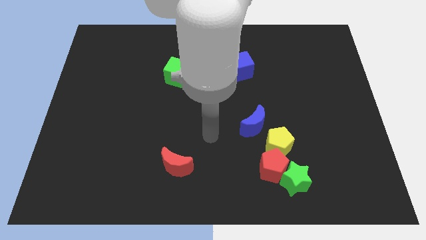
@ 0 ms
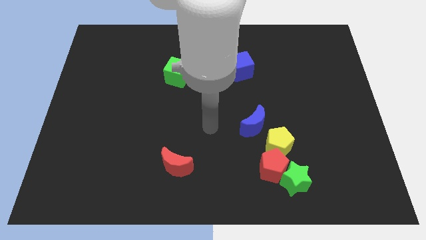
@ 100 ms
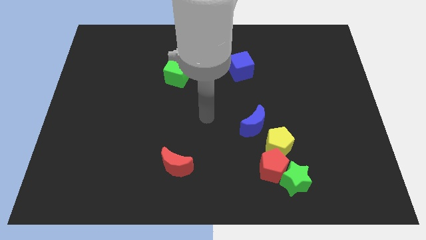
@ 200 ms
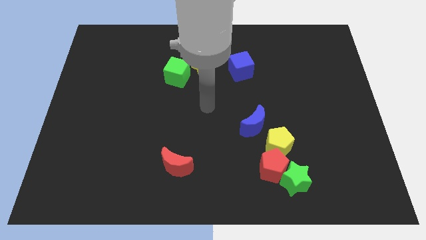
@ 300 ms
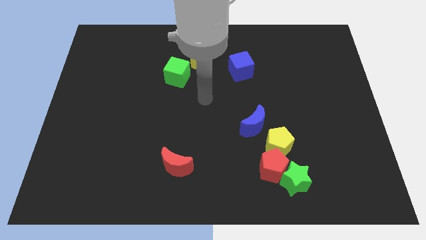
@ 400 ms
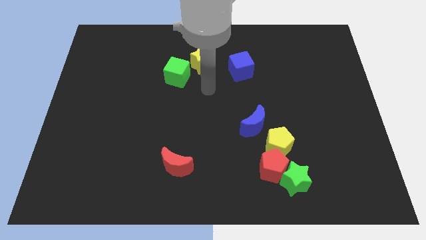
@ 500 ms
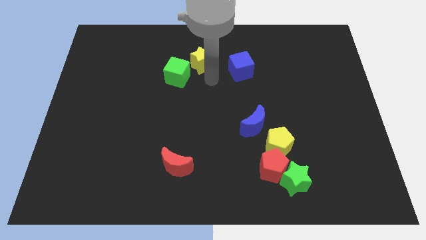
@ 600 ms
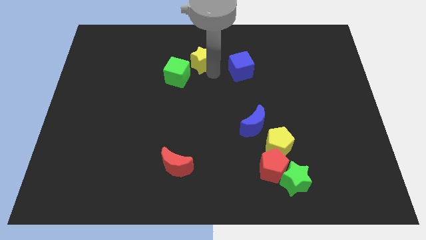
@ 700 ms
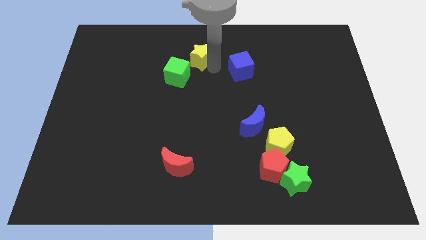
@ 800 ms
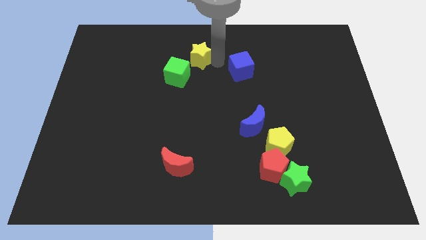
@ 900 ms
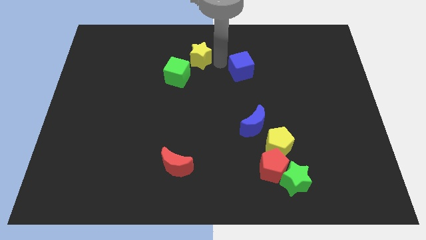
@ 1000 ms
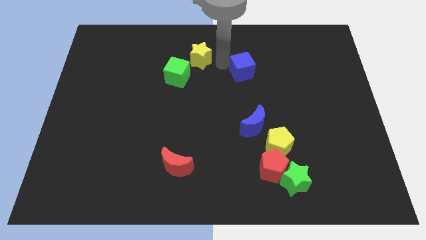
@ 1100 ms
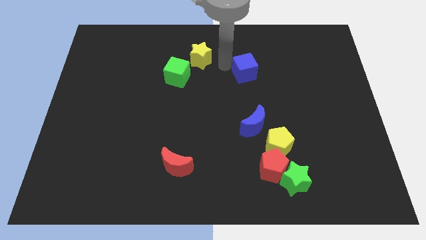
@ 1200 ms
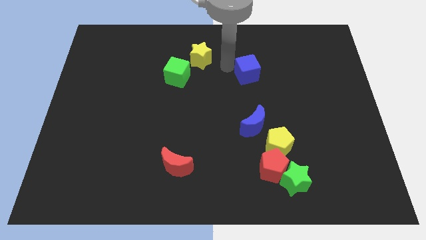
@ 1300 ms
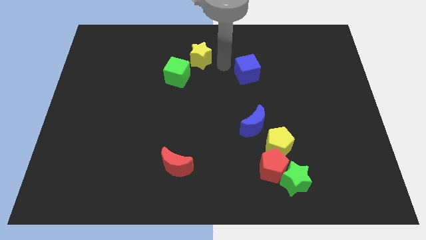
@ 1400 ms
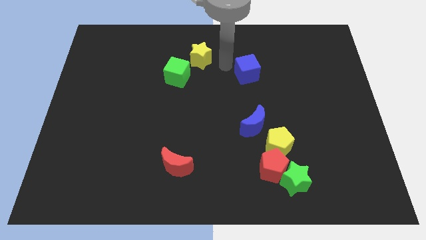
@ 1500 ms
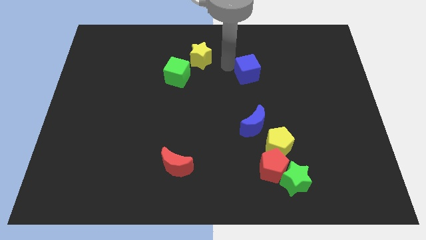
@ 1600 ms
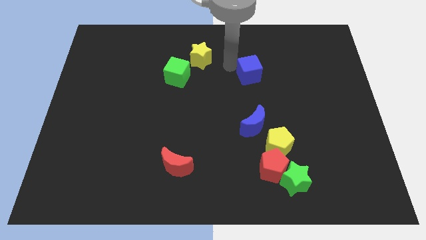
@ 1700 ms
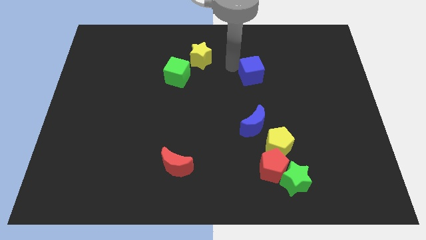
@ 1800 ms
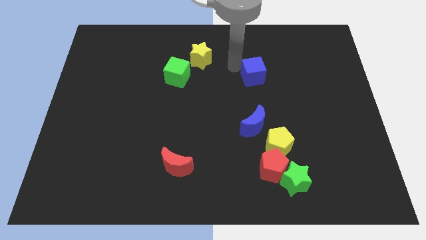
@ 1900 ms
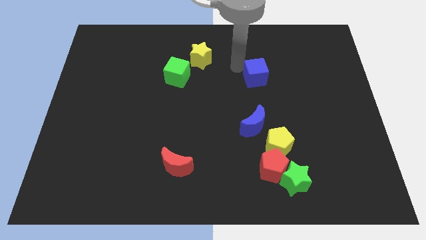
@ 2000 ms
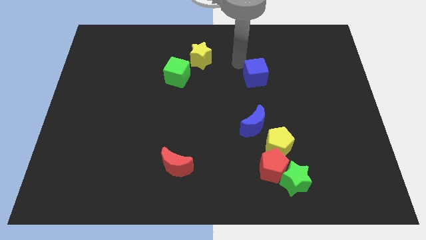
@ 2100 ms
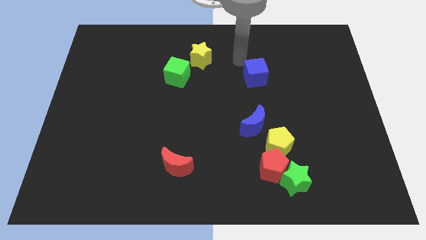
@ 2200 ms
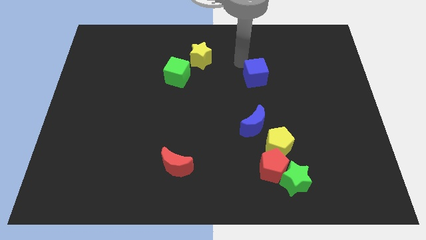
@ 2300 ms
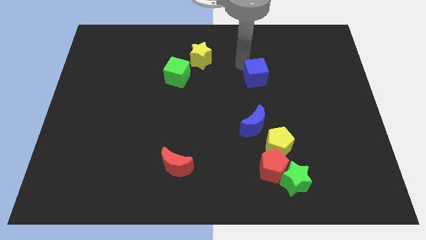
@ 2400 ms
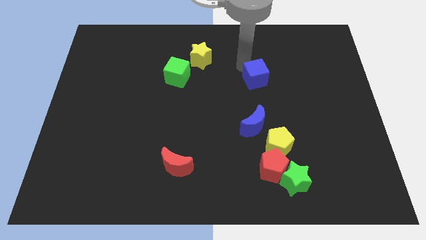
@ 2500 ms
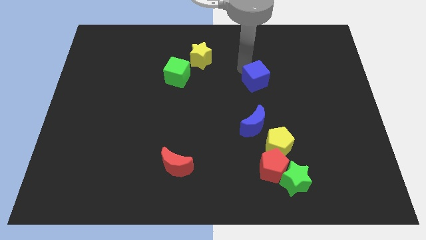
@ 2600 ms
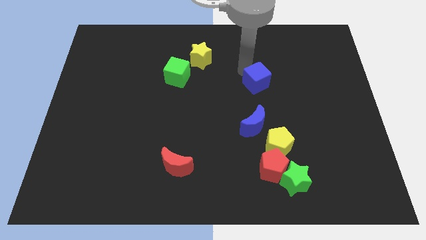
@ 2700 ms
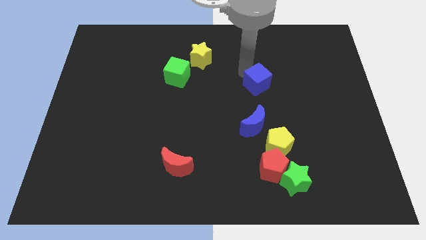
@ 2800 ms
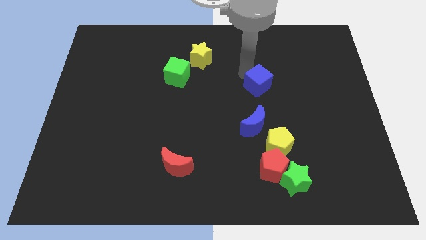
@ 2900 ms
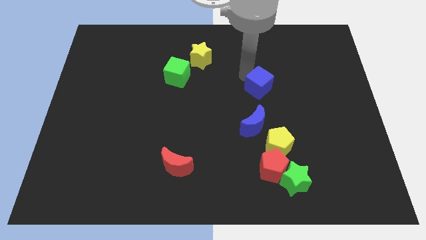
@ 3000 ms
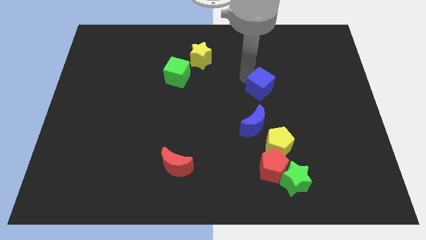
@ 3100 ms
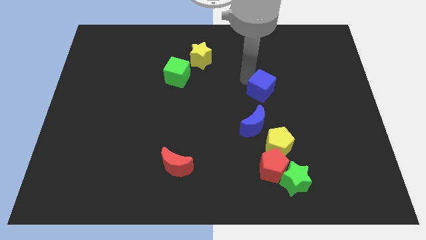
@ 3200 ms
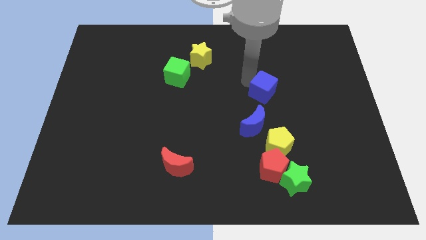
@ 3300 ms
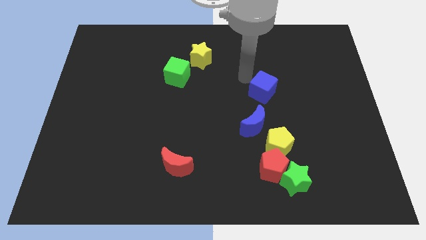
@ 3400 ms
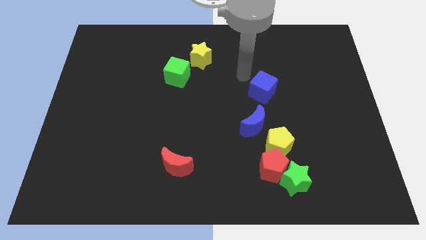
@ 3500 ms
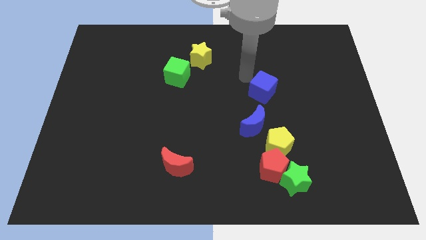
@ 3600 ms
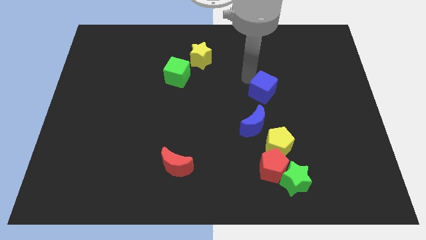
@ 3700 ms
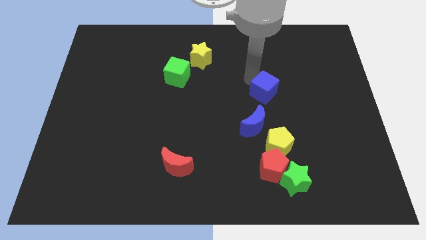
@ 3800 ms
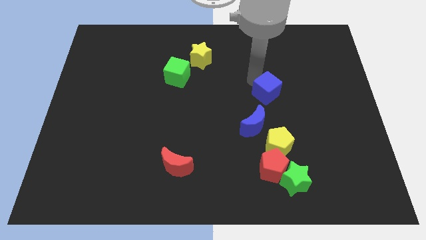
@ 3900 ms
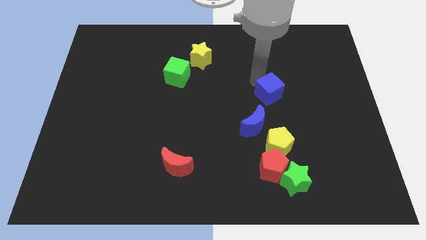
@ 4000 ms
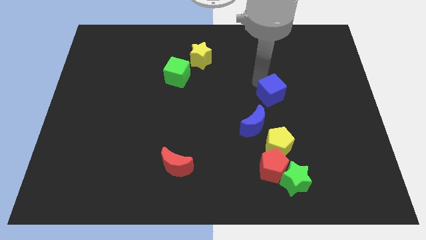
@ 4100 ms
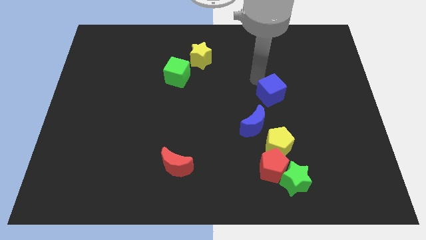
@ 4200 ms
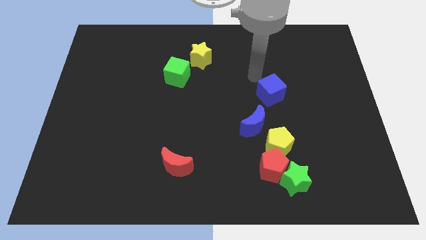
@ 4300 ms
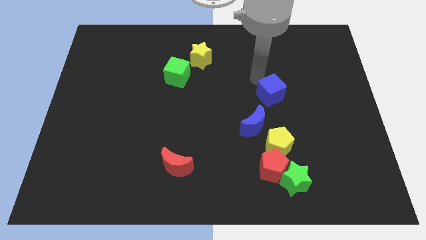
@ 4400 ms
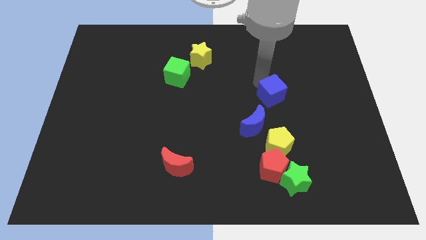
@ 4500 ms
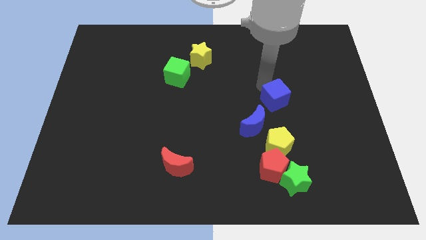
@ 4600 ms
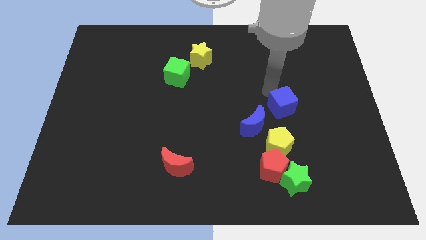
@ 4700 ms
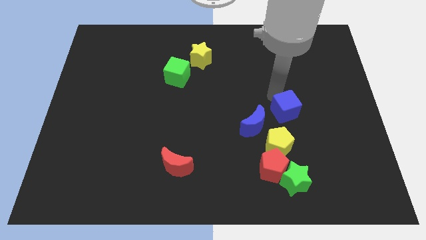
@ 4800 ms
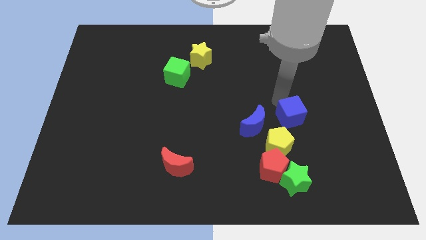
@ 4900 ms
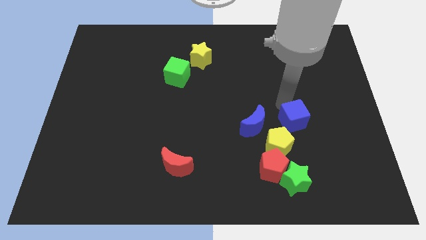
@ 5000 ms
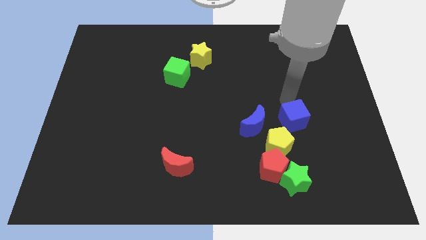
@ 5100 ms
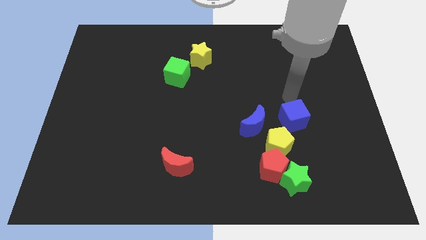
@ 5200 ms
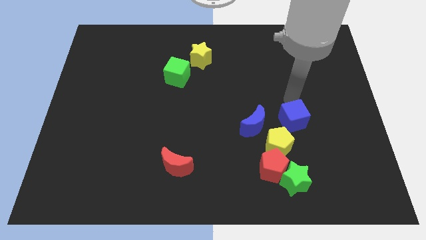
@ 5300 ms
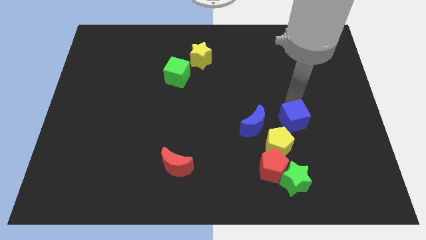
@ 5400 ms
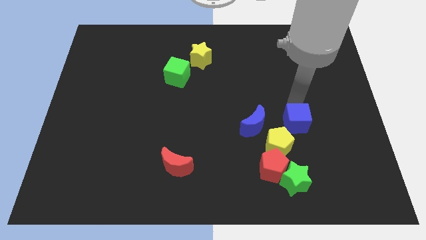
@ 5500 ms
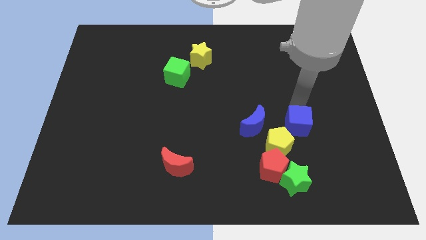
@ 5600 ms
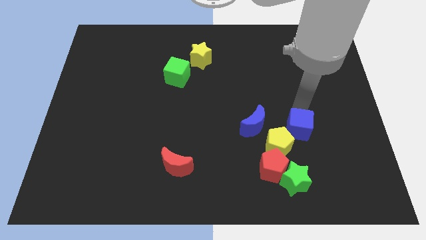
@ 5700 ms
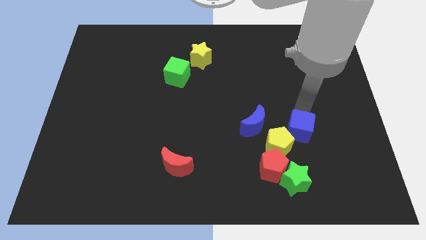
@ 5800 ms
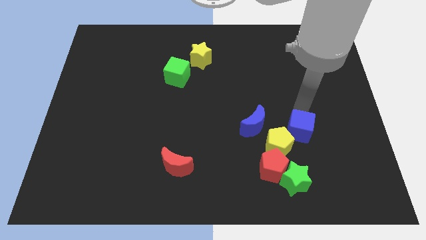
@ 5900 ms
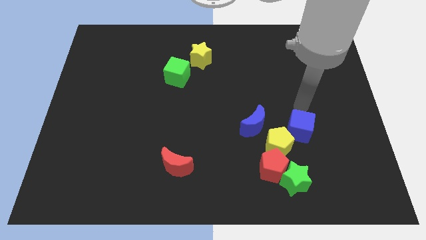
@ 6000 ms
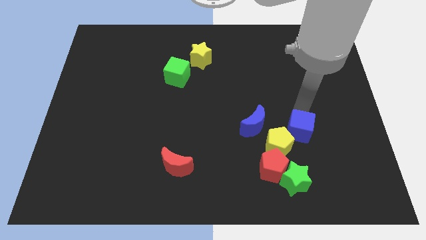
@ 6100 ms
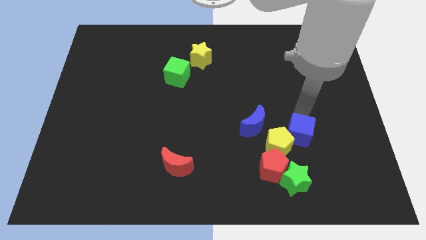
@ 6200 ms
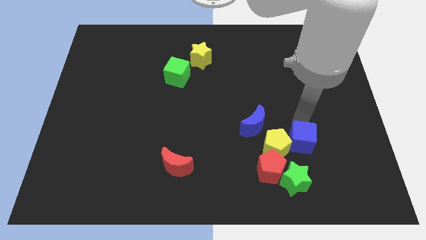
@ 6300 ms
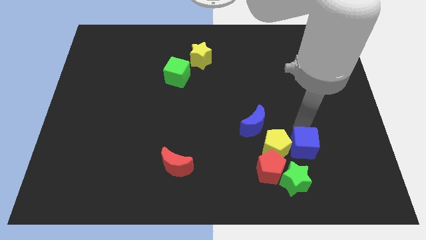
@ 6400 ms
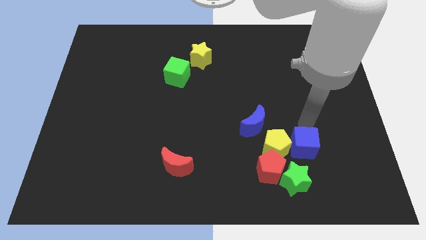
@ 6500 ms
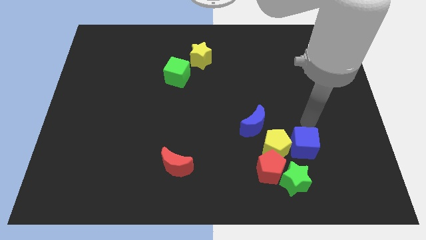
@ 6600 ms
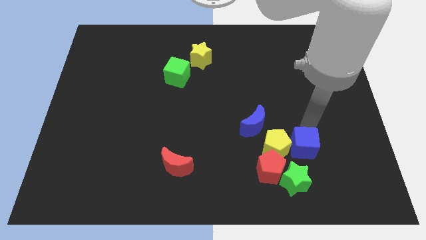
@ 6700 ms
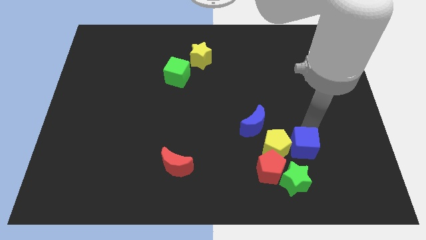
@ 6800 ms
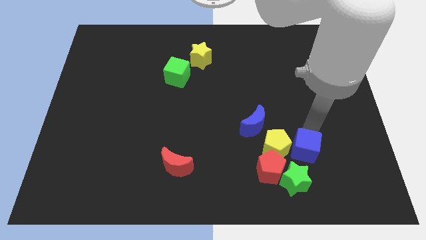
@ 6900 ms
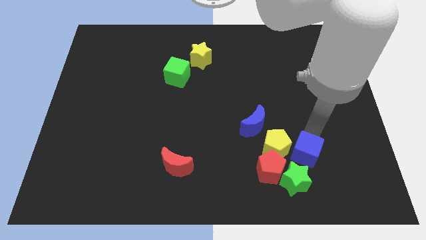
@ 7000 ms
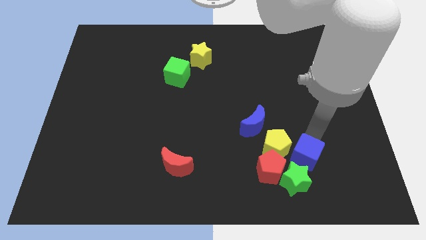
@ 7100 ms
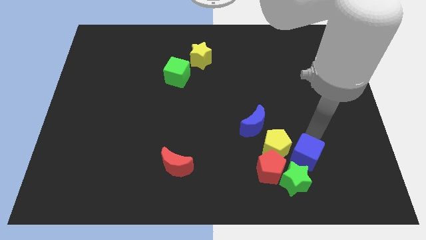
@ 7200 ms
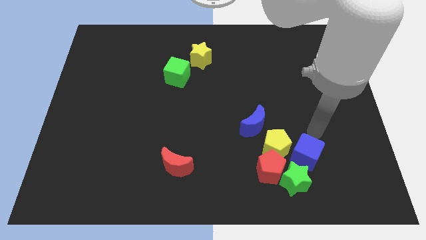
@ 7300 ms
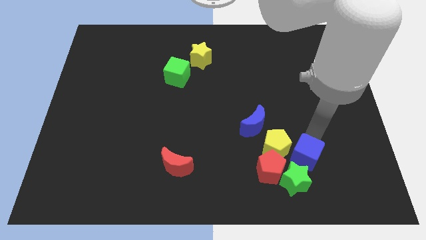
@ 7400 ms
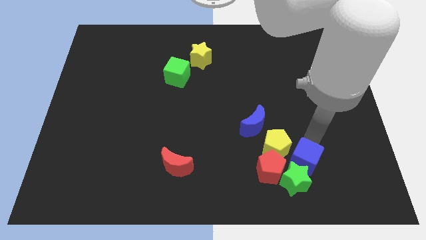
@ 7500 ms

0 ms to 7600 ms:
slide the blue cube close to the green star
